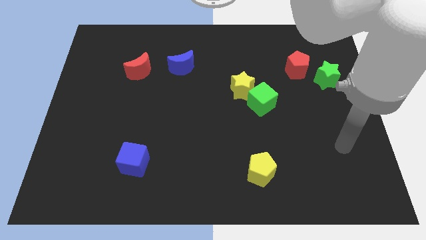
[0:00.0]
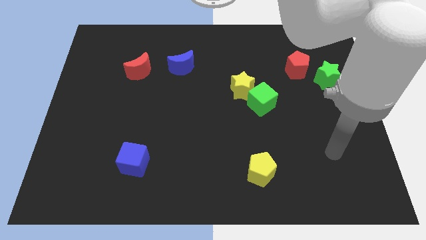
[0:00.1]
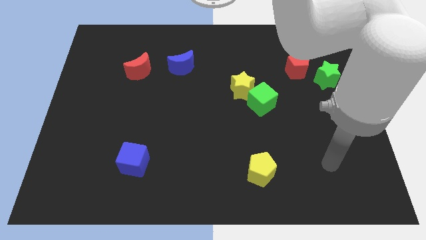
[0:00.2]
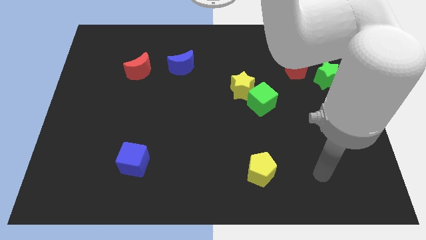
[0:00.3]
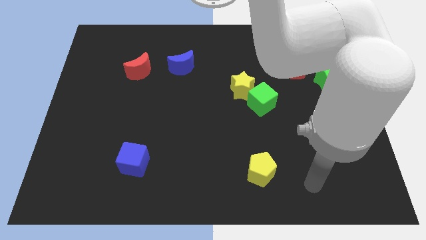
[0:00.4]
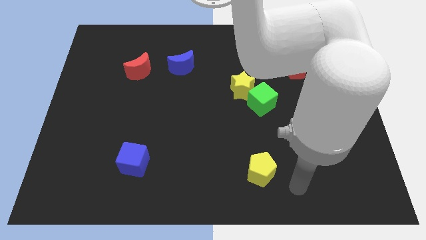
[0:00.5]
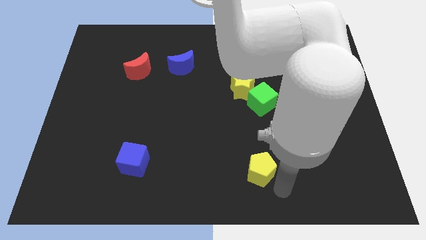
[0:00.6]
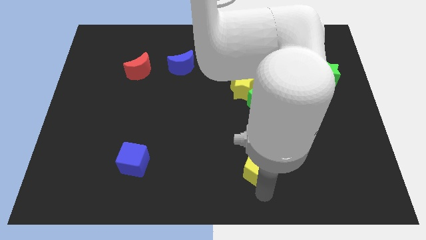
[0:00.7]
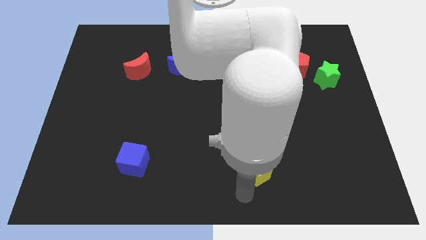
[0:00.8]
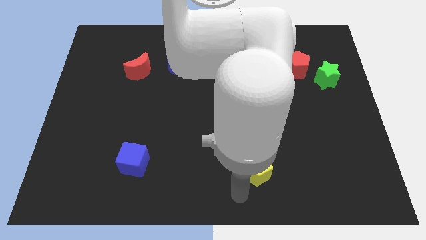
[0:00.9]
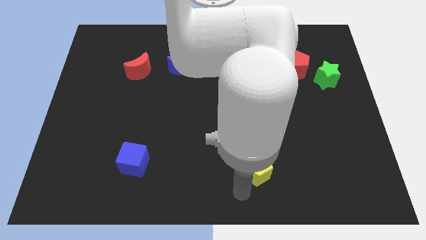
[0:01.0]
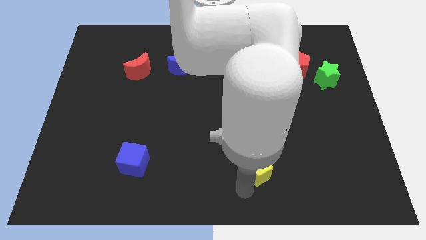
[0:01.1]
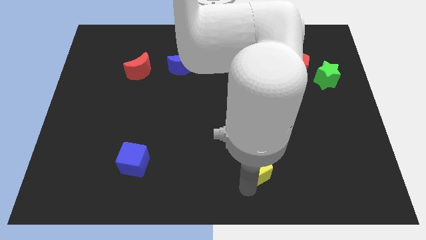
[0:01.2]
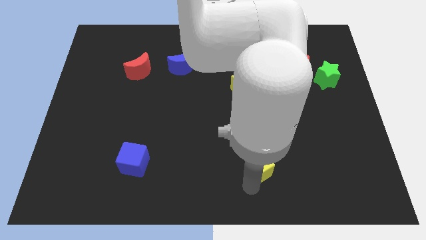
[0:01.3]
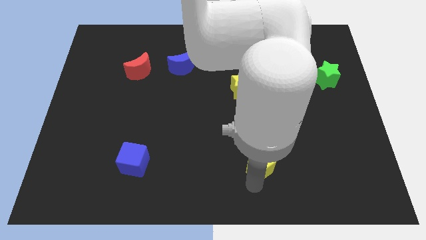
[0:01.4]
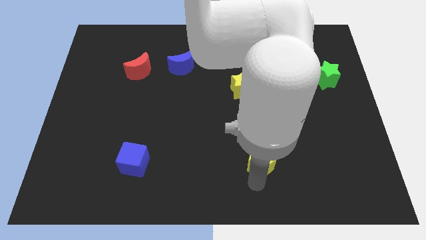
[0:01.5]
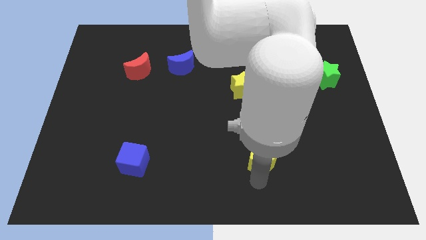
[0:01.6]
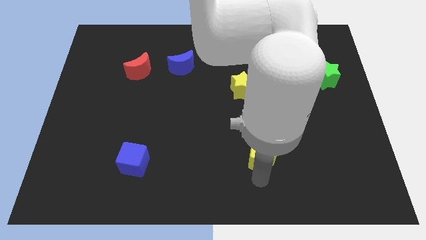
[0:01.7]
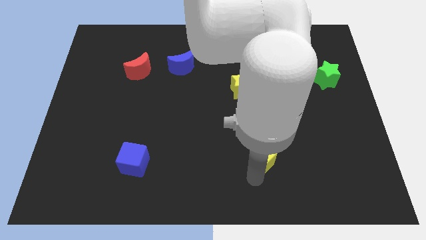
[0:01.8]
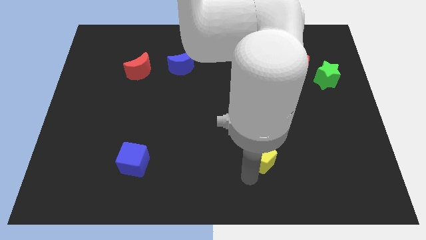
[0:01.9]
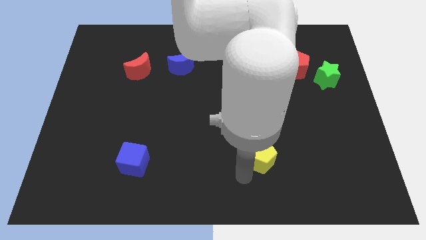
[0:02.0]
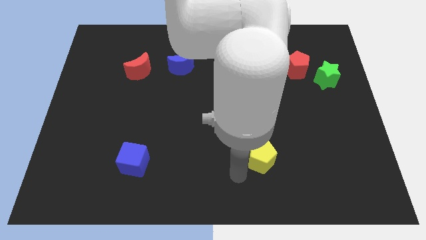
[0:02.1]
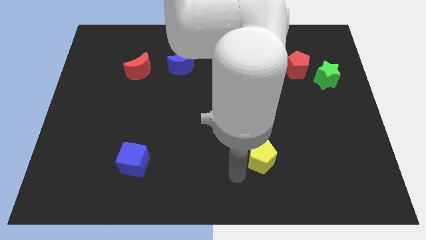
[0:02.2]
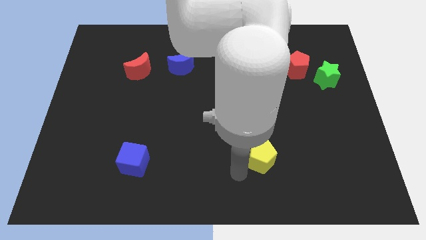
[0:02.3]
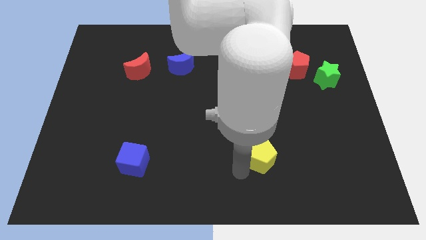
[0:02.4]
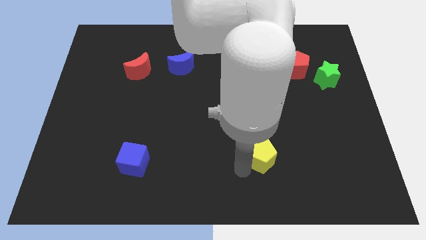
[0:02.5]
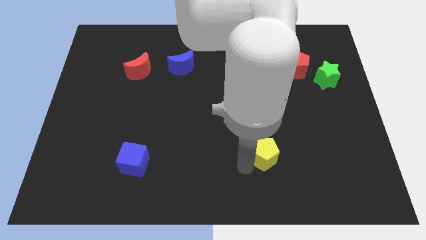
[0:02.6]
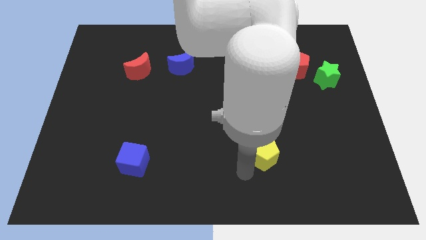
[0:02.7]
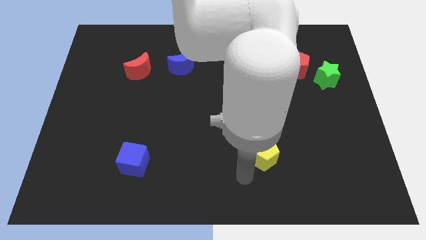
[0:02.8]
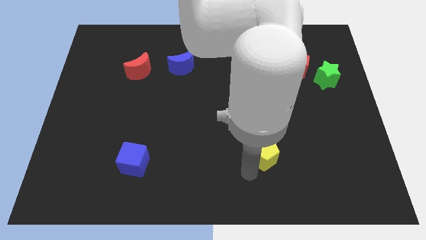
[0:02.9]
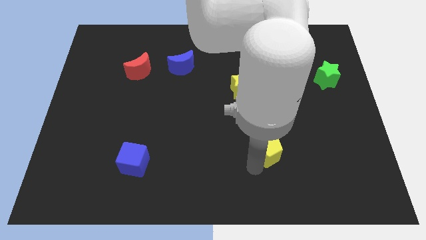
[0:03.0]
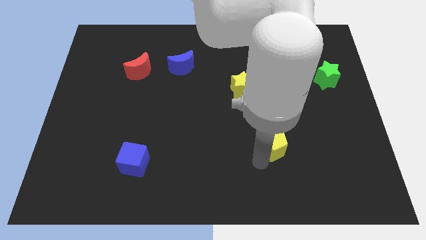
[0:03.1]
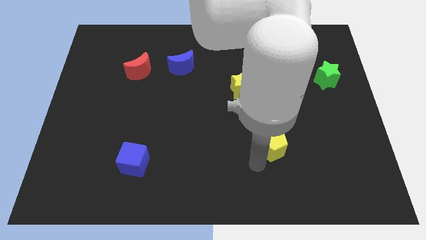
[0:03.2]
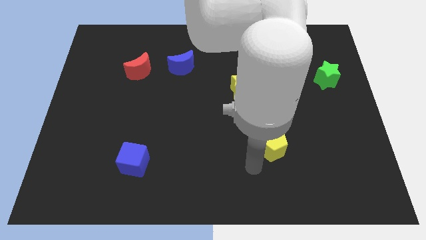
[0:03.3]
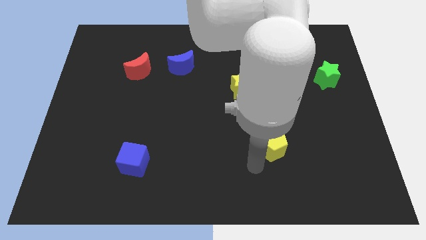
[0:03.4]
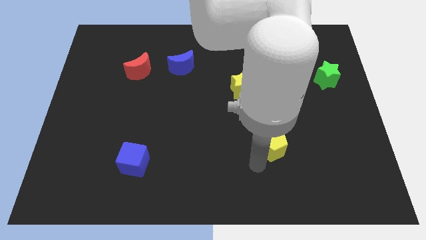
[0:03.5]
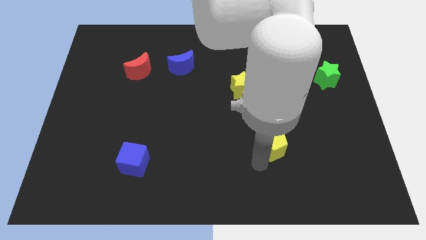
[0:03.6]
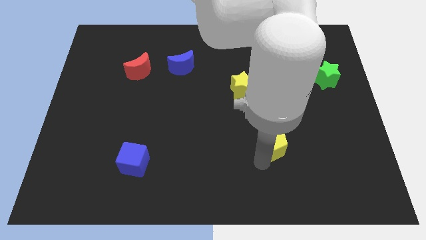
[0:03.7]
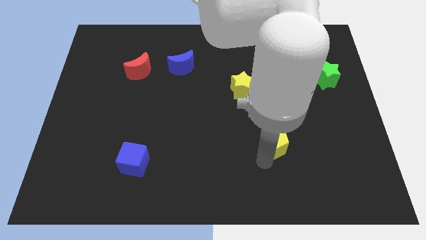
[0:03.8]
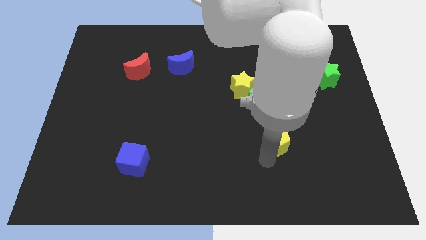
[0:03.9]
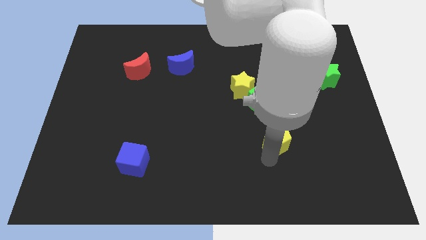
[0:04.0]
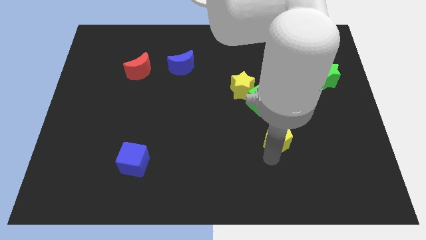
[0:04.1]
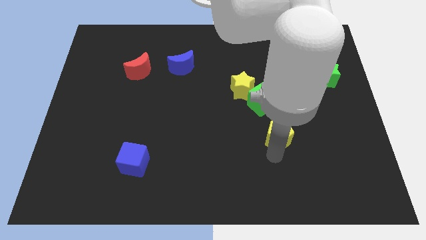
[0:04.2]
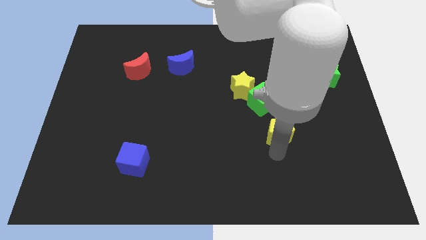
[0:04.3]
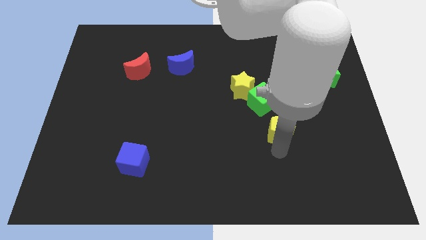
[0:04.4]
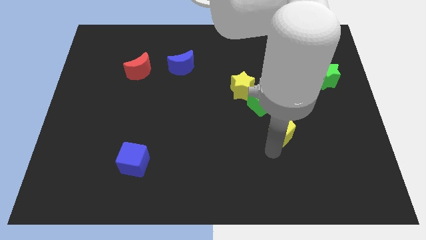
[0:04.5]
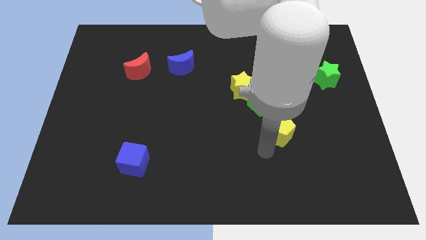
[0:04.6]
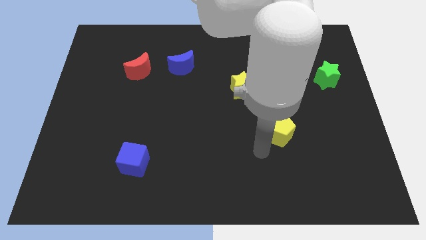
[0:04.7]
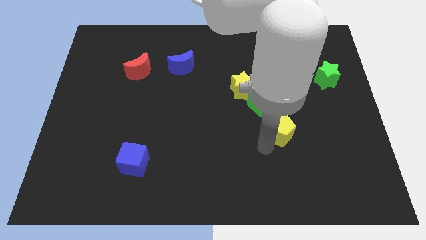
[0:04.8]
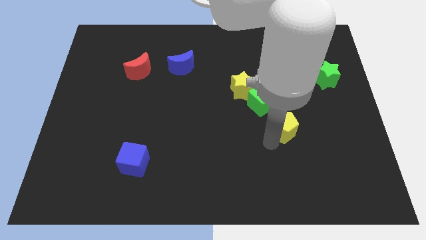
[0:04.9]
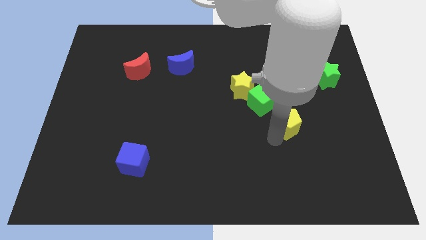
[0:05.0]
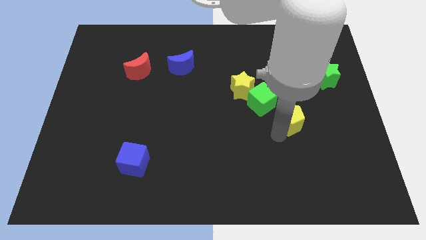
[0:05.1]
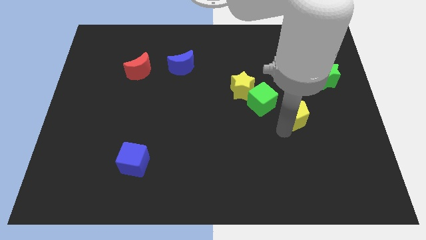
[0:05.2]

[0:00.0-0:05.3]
put the yellow pentagon right of the green cube

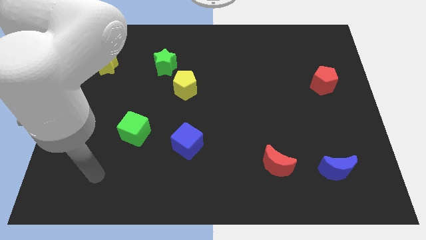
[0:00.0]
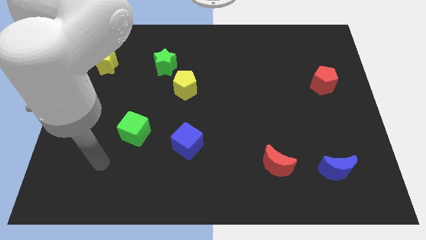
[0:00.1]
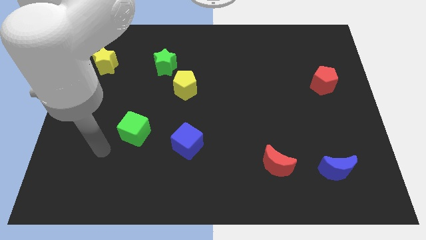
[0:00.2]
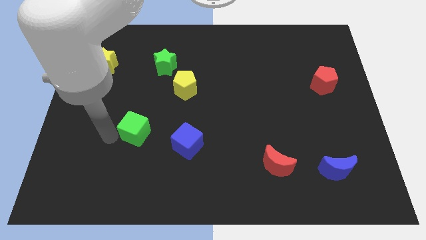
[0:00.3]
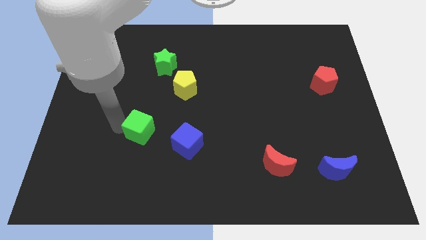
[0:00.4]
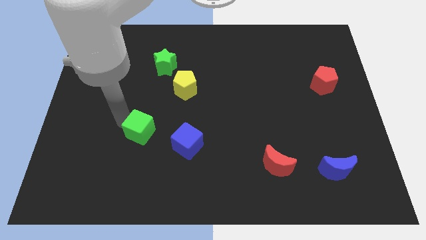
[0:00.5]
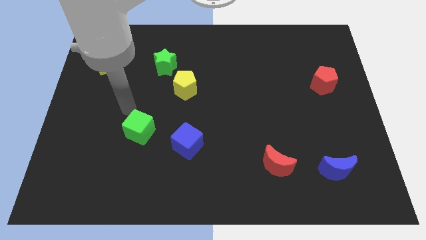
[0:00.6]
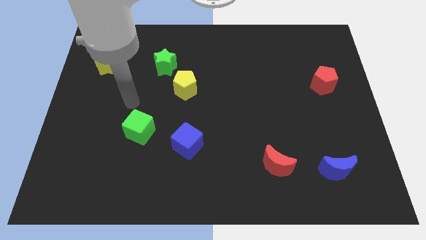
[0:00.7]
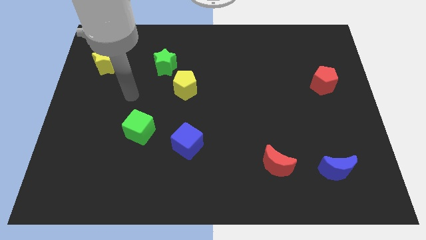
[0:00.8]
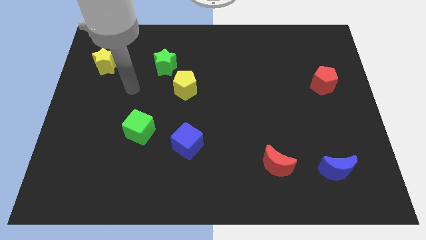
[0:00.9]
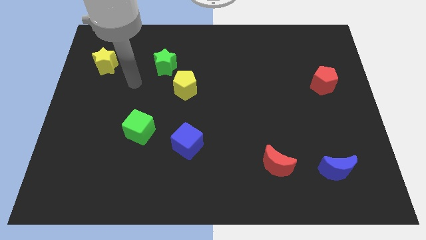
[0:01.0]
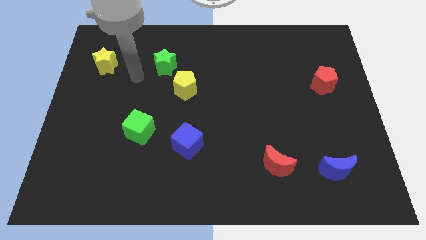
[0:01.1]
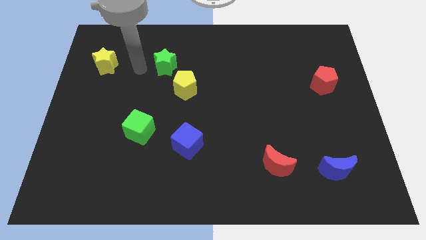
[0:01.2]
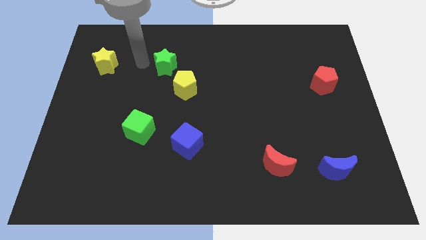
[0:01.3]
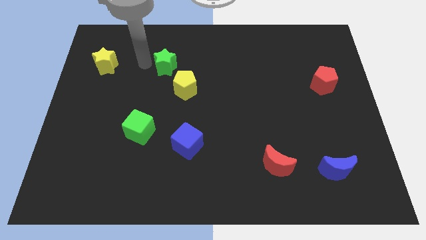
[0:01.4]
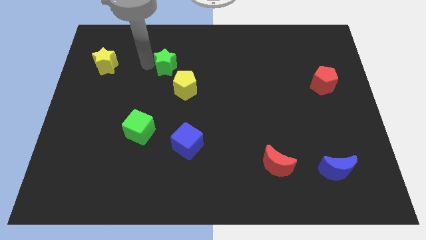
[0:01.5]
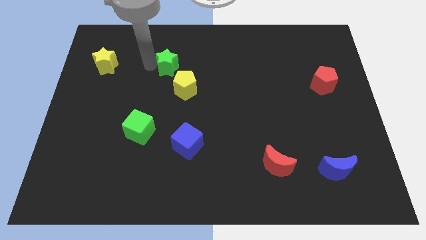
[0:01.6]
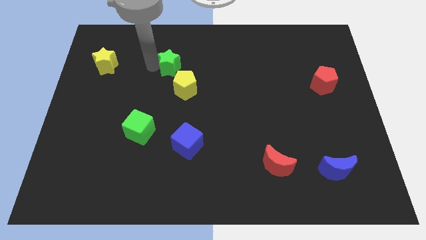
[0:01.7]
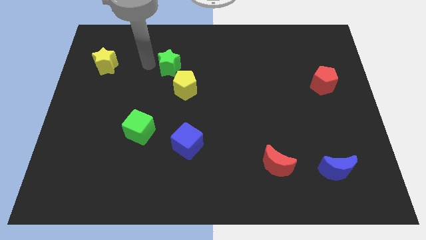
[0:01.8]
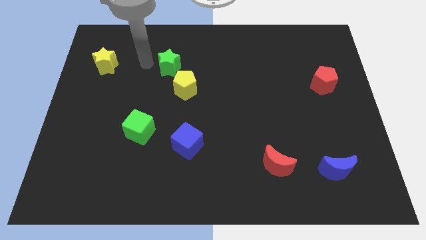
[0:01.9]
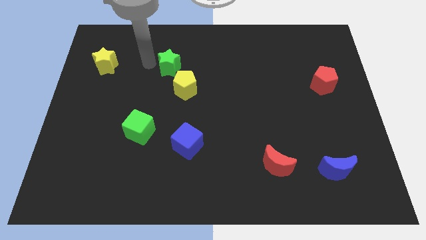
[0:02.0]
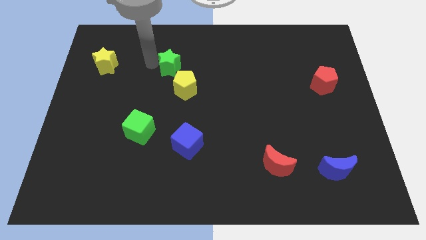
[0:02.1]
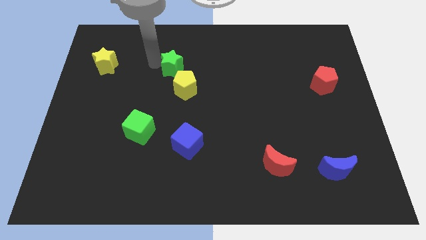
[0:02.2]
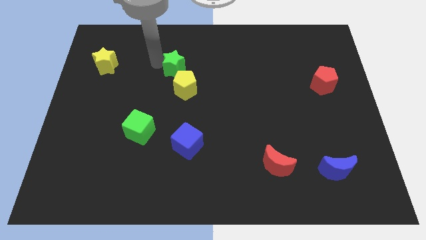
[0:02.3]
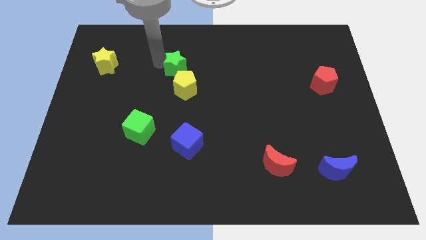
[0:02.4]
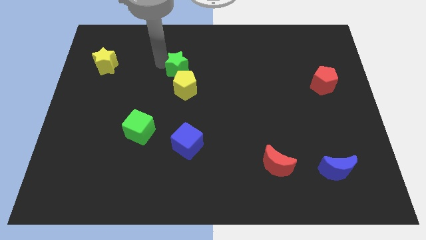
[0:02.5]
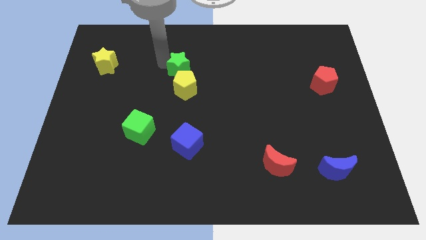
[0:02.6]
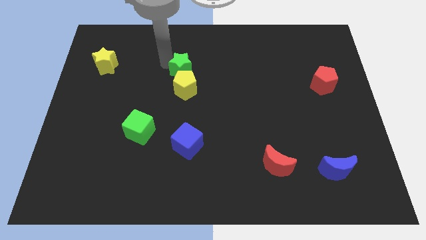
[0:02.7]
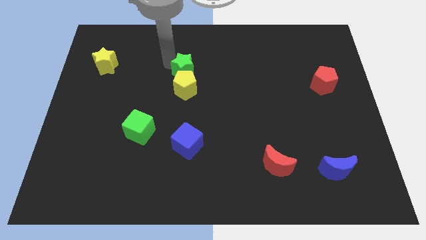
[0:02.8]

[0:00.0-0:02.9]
put the green star to the top right side of the yellow pentagon
